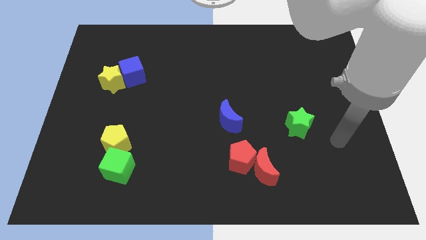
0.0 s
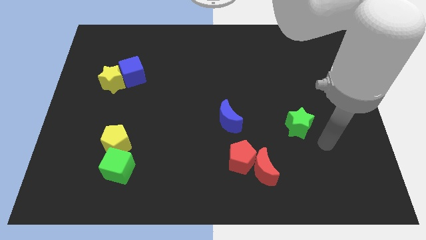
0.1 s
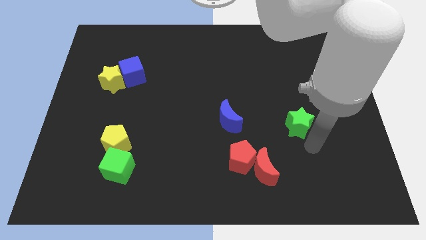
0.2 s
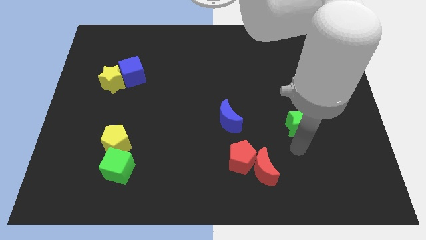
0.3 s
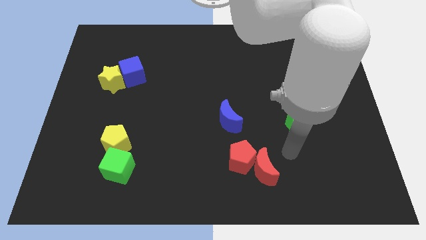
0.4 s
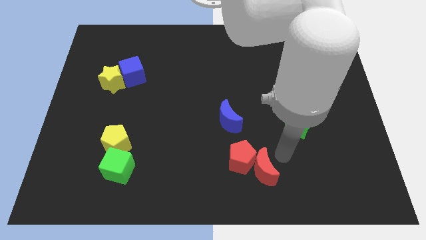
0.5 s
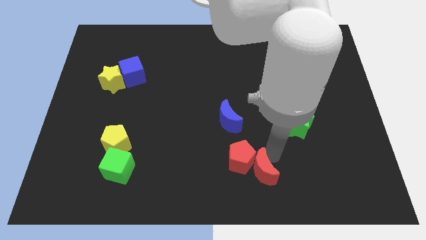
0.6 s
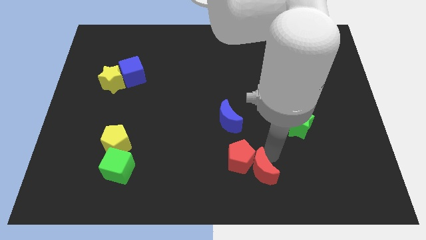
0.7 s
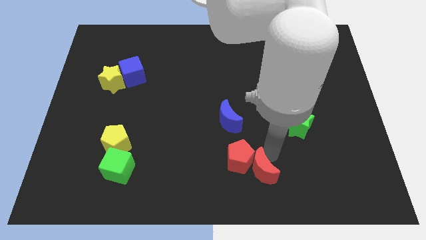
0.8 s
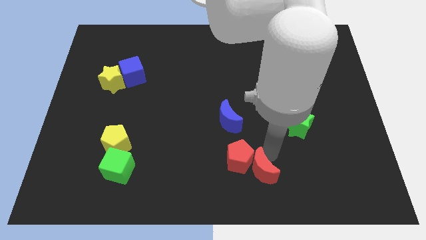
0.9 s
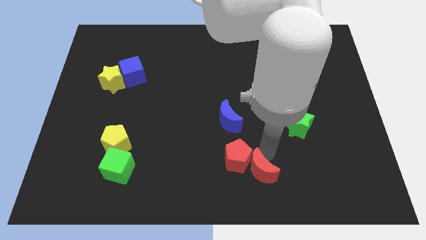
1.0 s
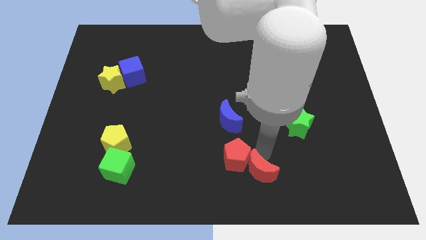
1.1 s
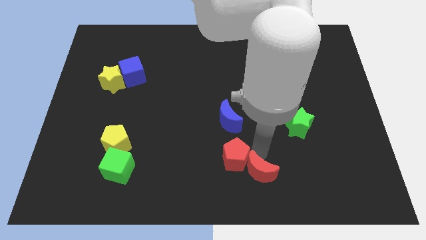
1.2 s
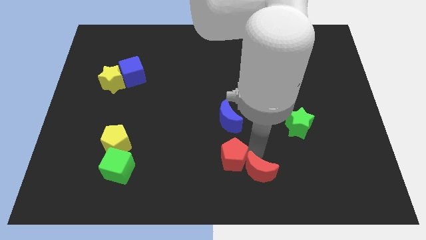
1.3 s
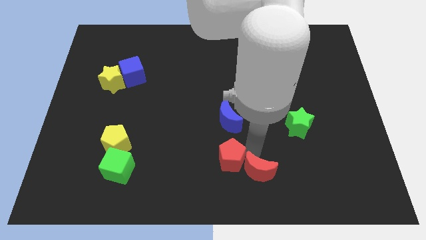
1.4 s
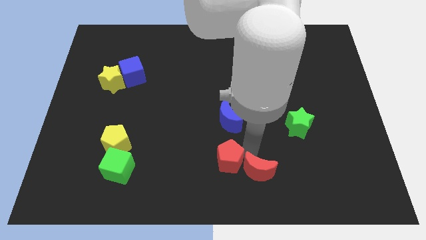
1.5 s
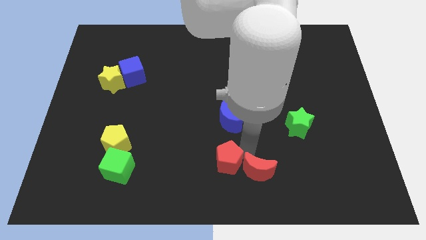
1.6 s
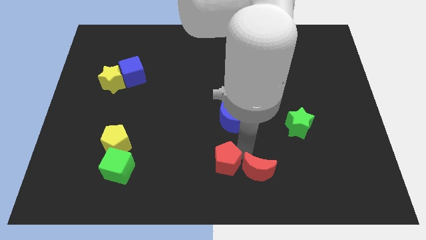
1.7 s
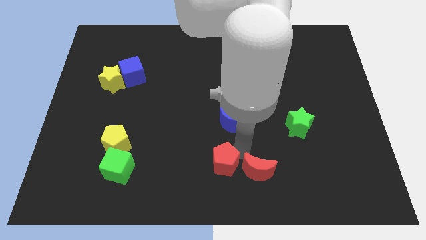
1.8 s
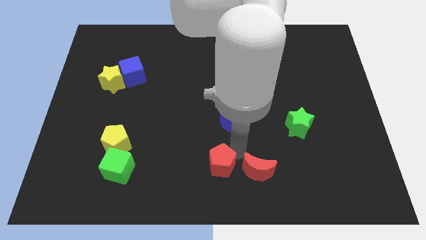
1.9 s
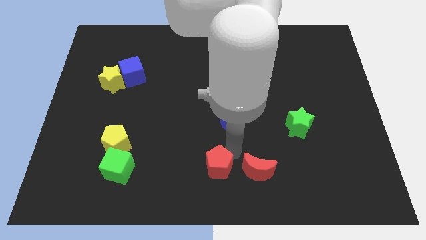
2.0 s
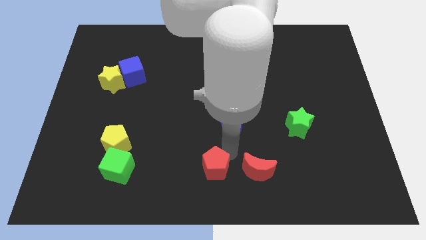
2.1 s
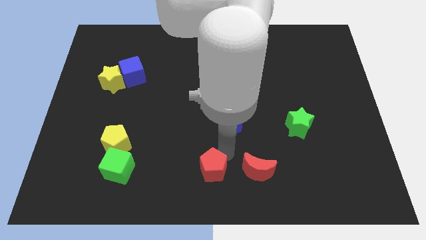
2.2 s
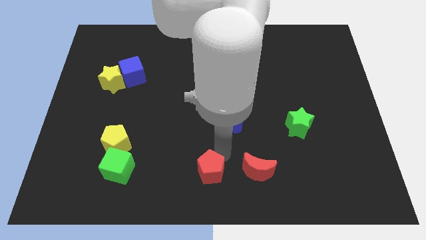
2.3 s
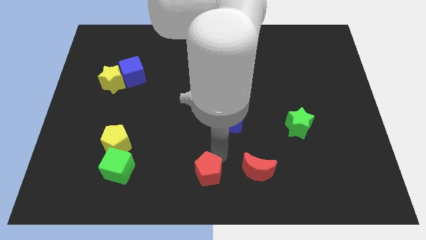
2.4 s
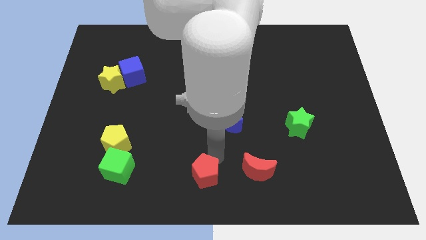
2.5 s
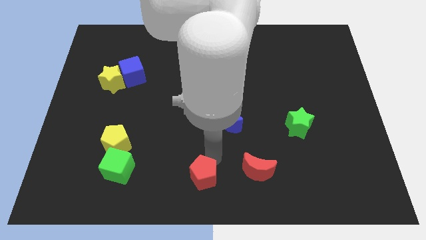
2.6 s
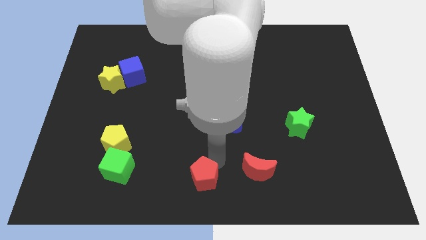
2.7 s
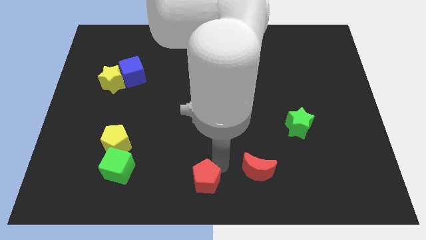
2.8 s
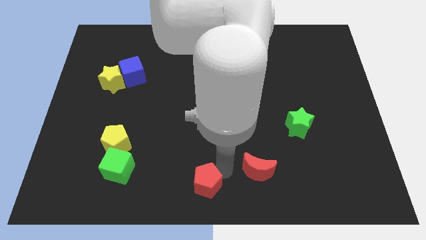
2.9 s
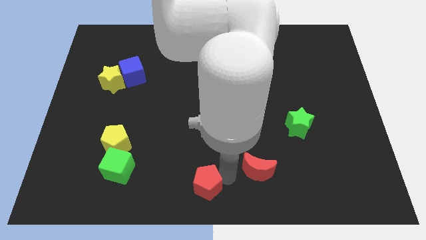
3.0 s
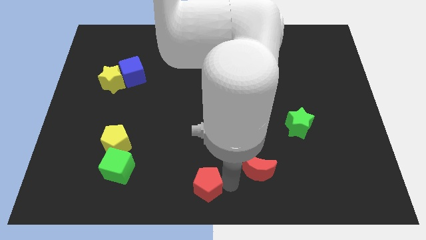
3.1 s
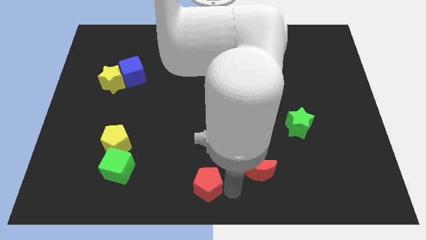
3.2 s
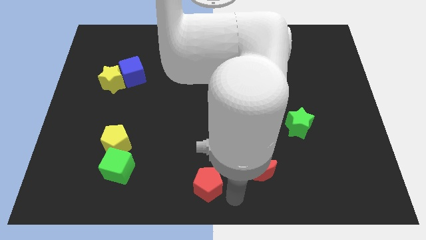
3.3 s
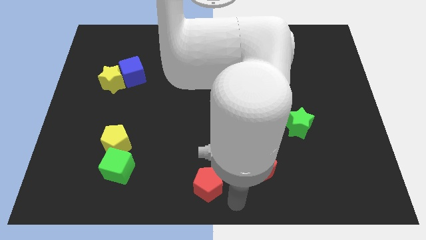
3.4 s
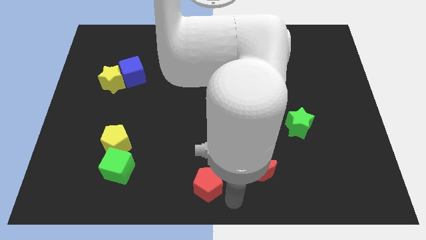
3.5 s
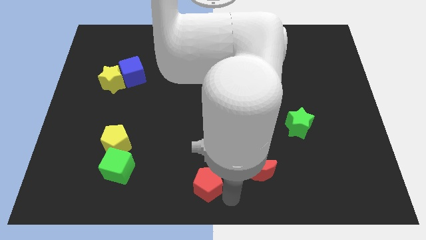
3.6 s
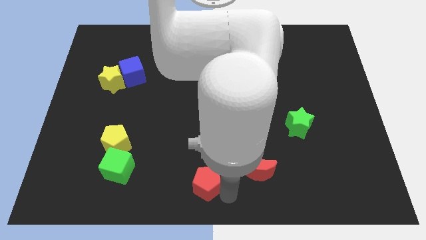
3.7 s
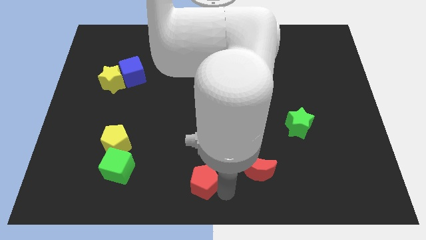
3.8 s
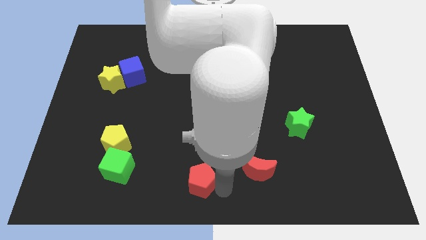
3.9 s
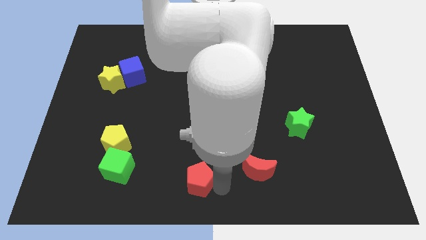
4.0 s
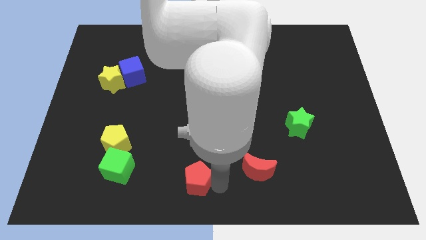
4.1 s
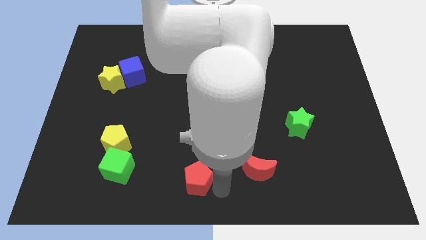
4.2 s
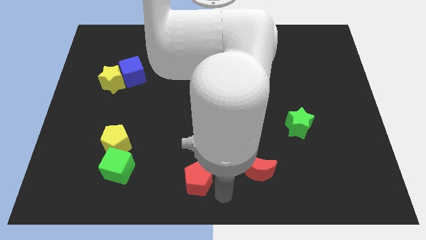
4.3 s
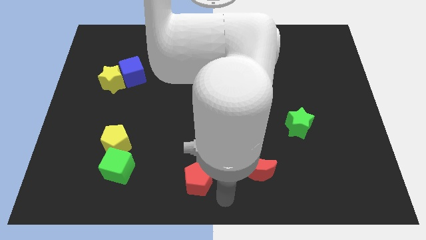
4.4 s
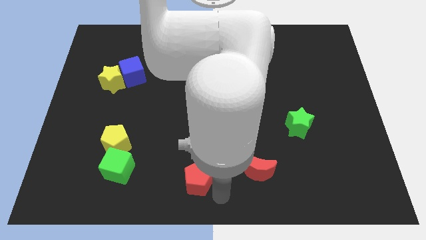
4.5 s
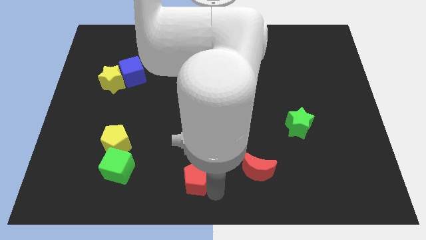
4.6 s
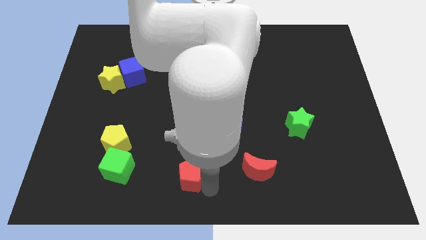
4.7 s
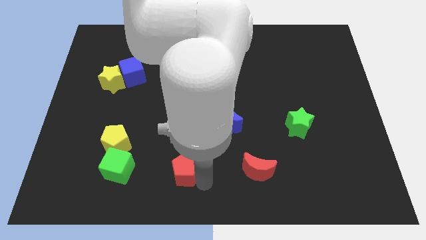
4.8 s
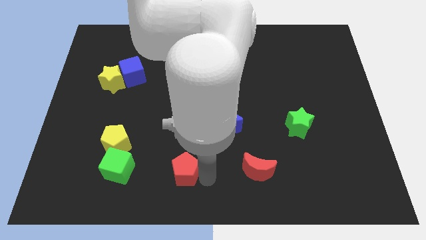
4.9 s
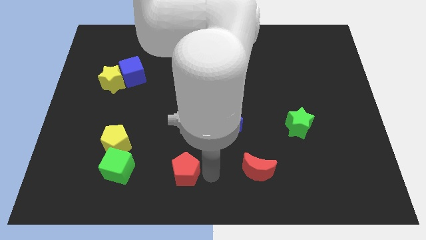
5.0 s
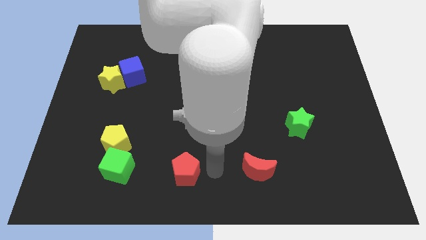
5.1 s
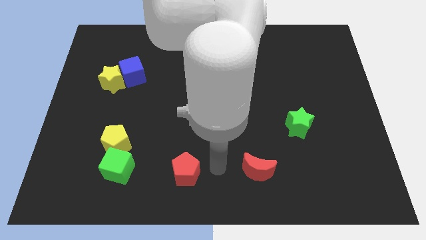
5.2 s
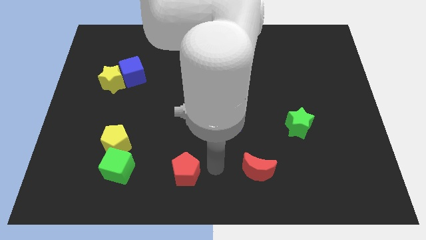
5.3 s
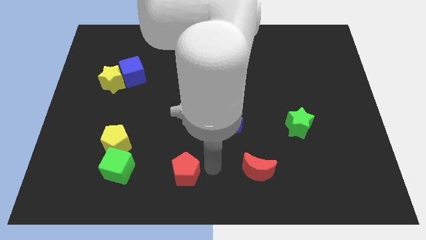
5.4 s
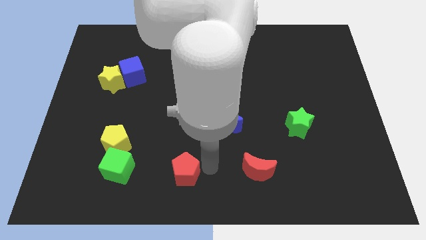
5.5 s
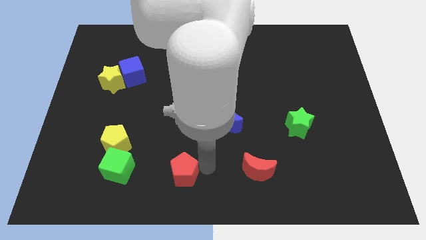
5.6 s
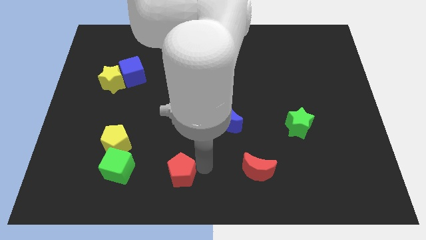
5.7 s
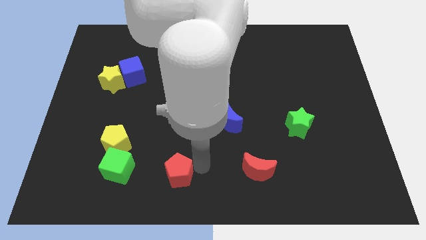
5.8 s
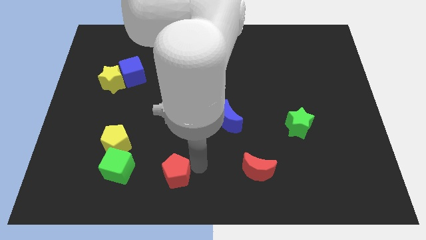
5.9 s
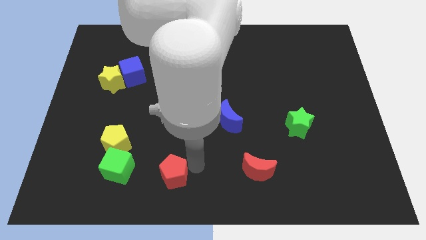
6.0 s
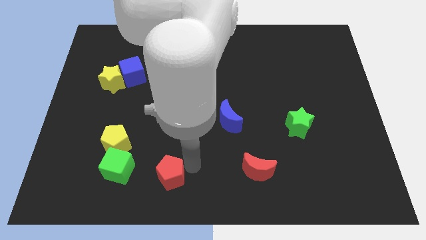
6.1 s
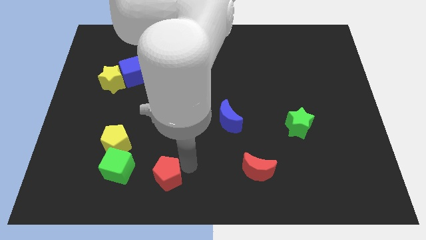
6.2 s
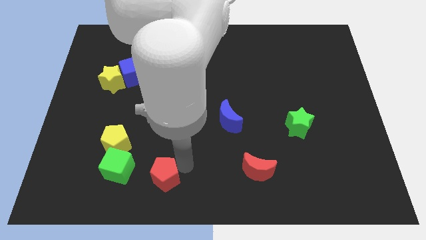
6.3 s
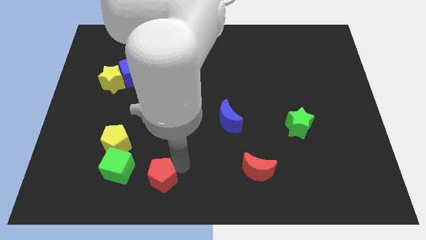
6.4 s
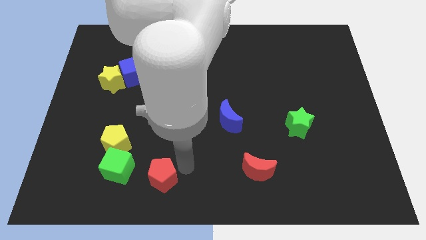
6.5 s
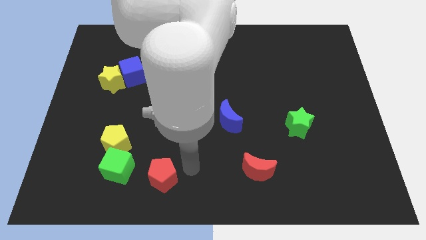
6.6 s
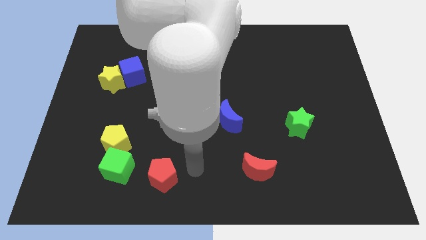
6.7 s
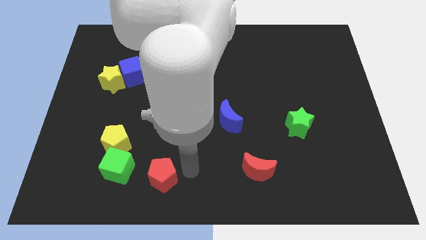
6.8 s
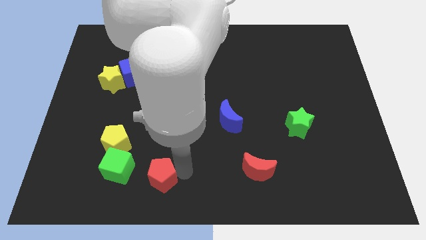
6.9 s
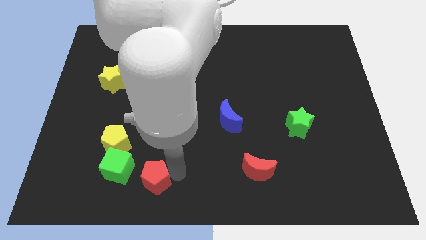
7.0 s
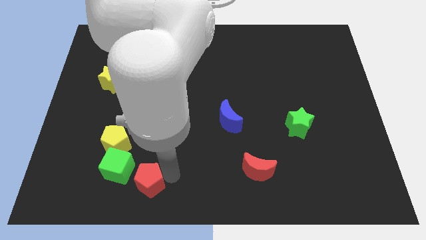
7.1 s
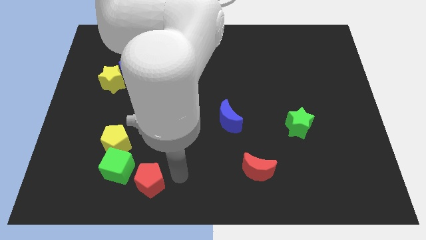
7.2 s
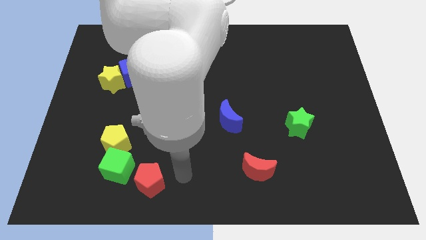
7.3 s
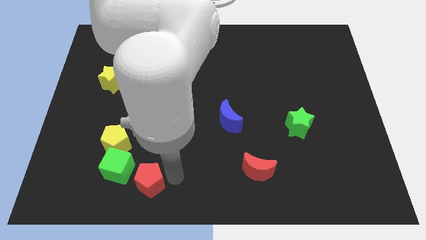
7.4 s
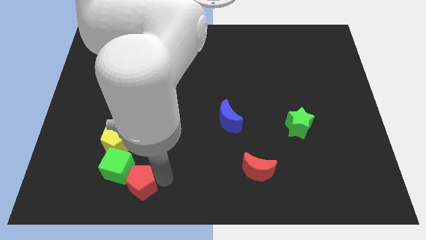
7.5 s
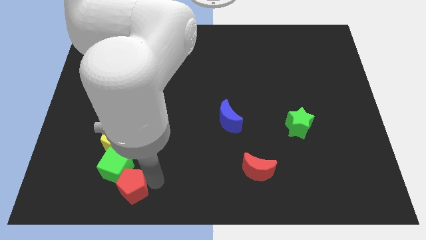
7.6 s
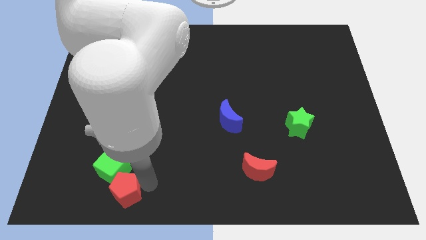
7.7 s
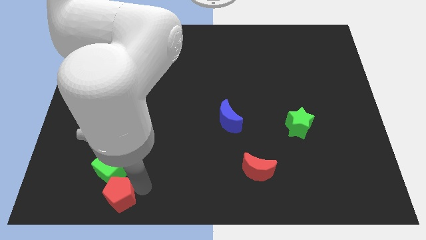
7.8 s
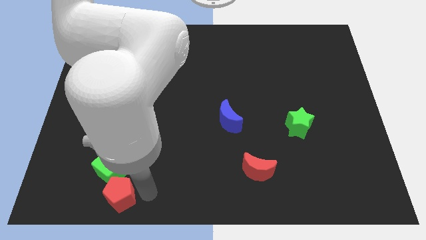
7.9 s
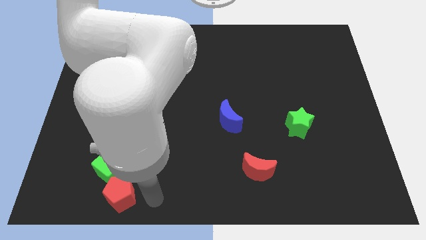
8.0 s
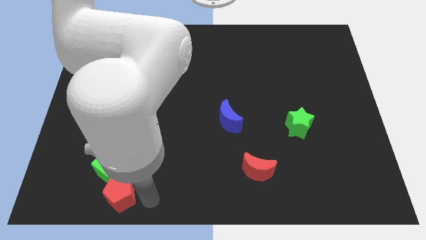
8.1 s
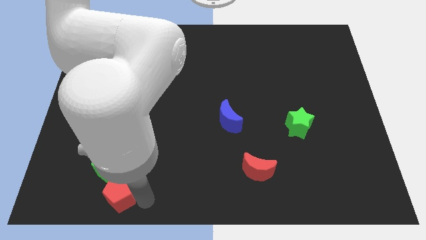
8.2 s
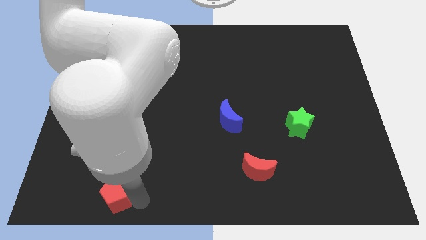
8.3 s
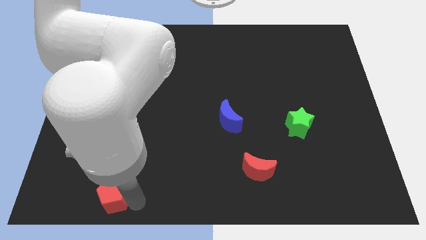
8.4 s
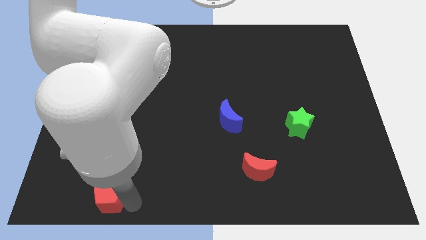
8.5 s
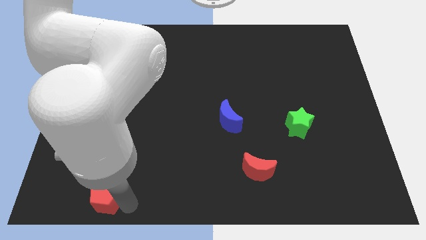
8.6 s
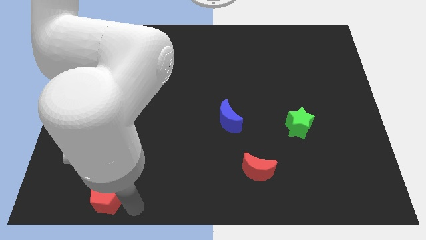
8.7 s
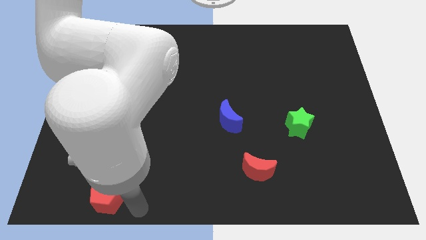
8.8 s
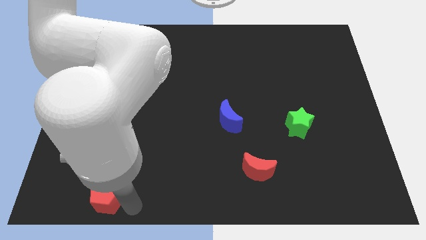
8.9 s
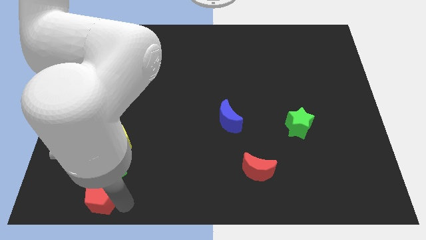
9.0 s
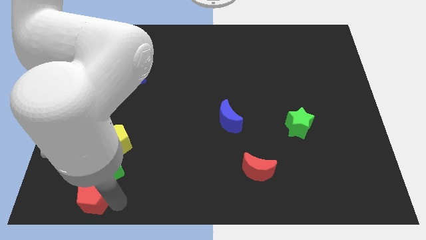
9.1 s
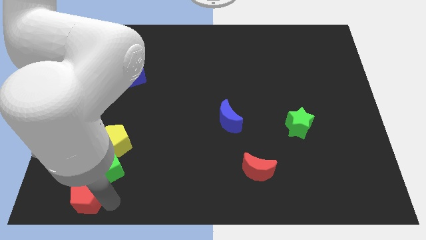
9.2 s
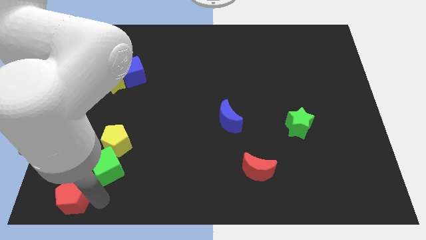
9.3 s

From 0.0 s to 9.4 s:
move the red pentagon to the bottom left corner
